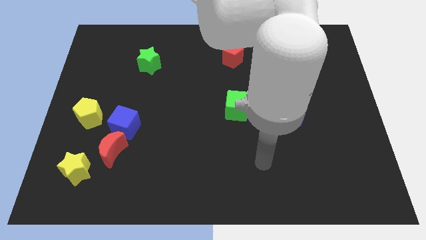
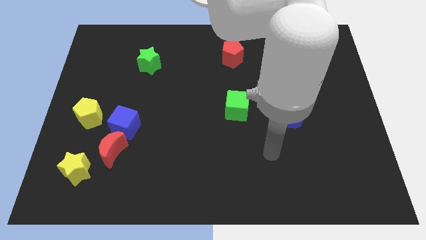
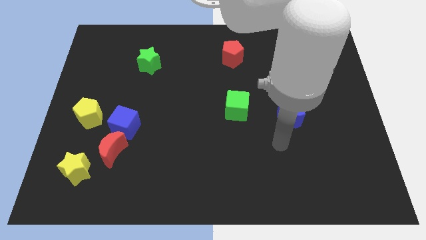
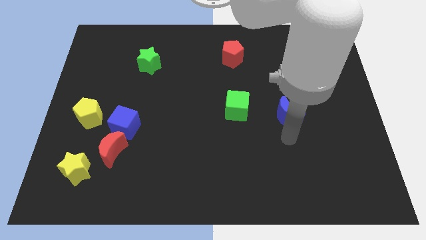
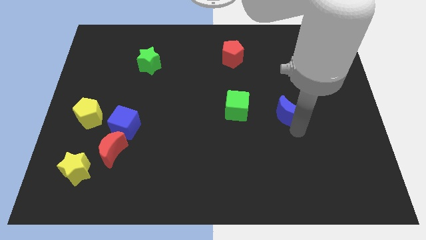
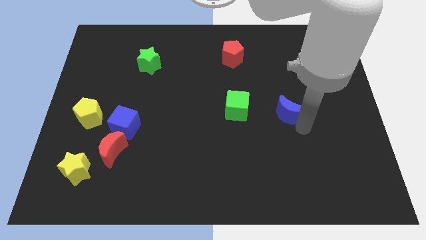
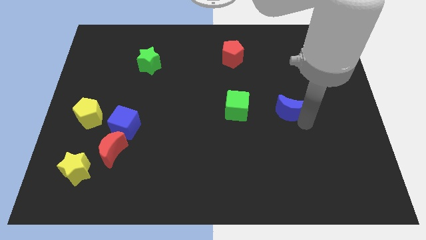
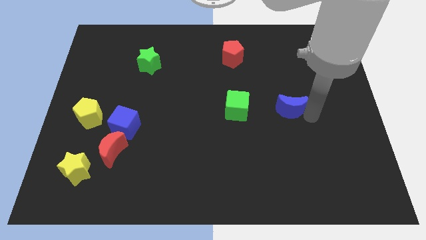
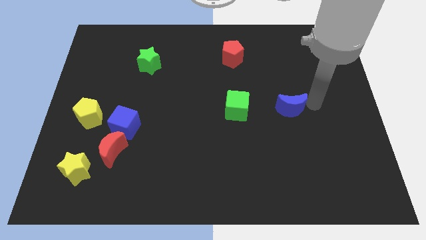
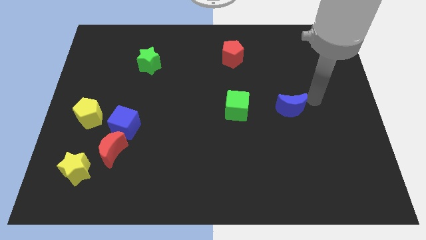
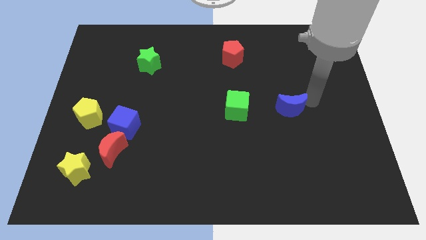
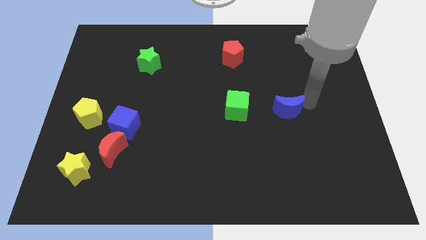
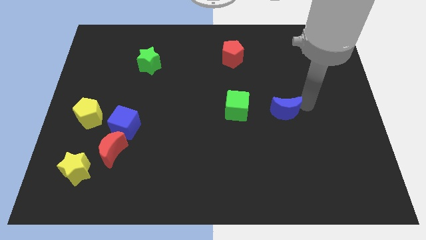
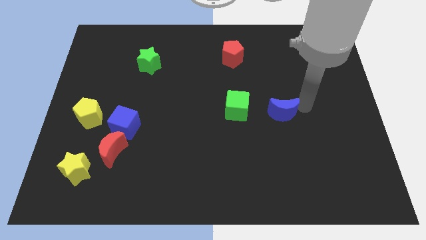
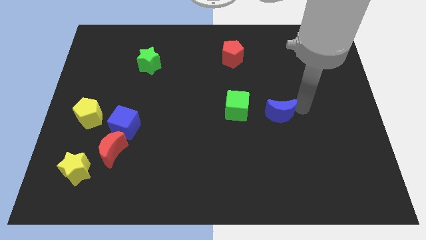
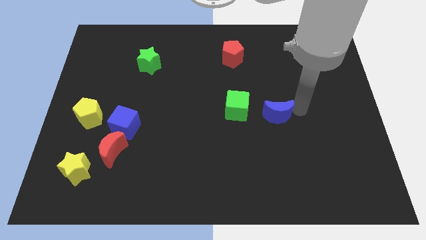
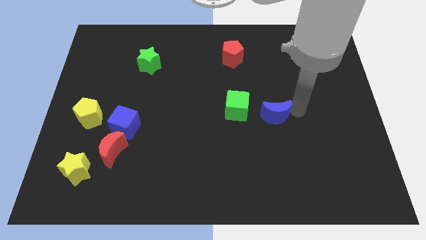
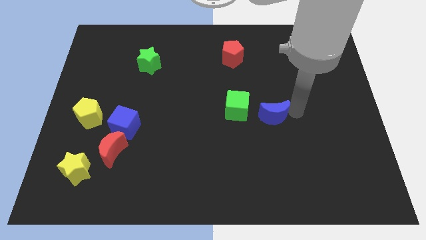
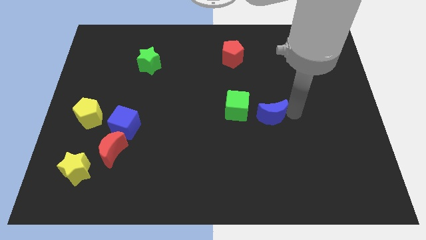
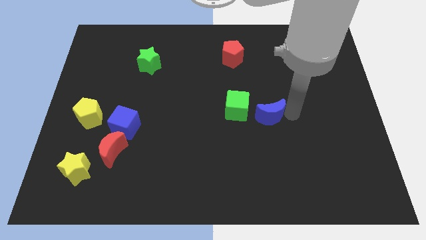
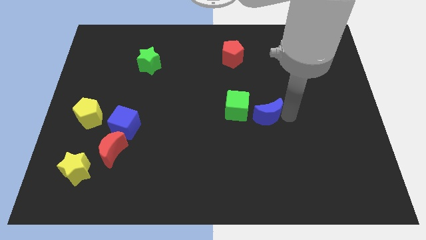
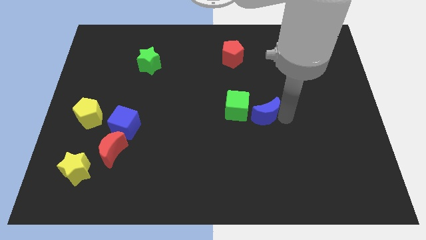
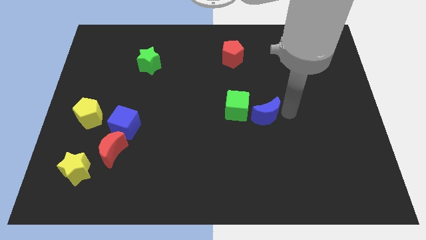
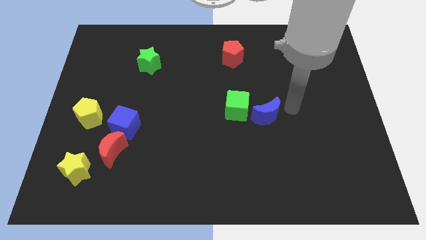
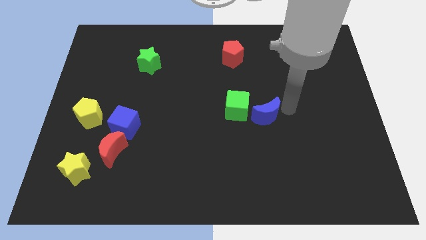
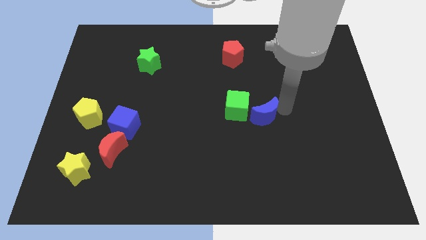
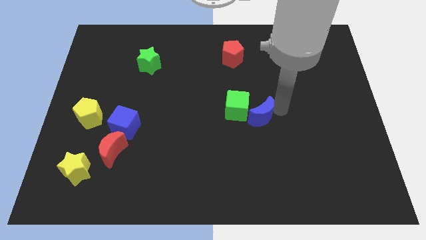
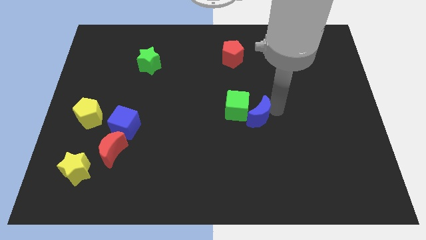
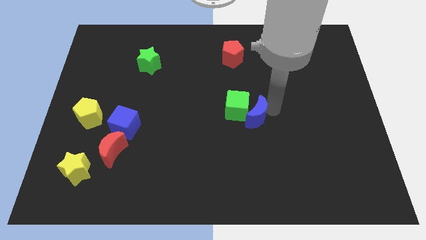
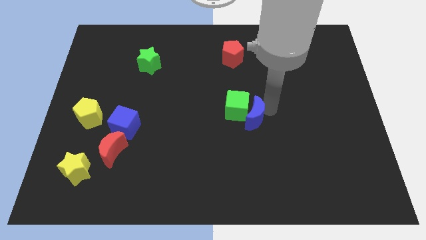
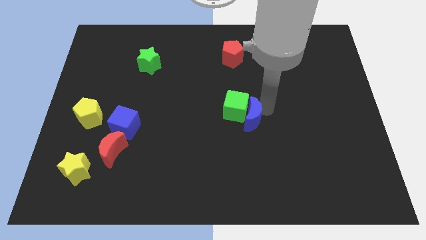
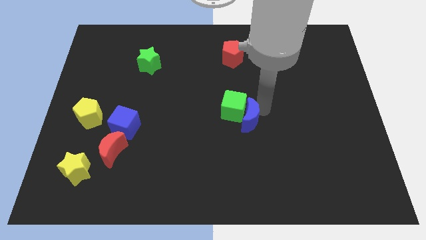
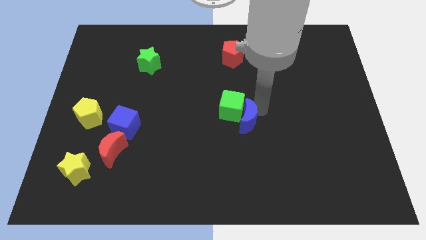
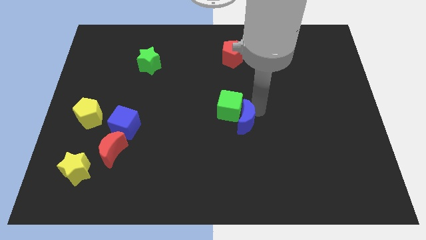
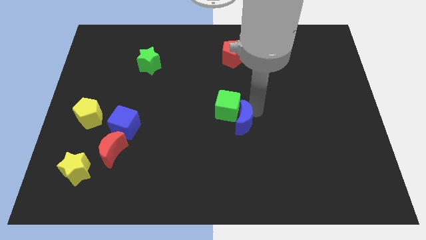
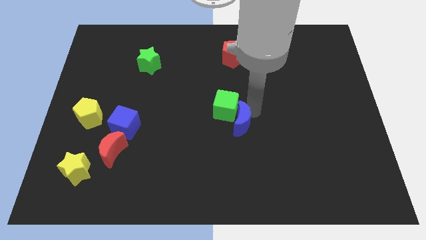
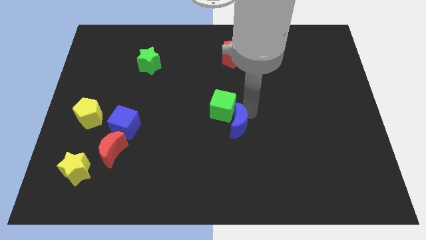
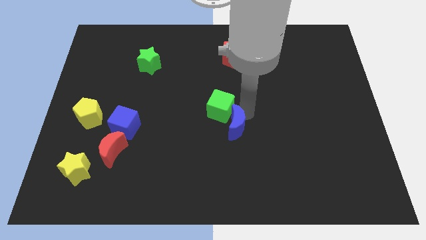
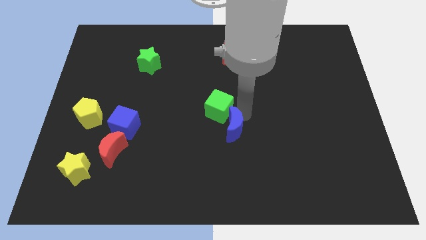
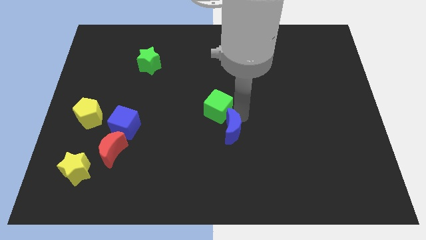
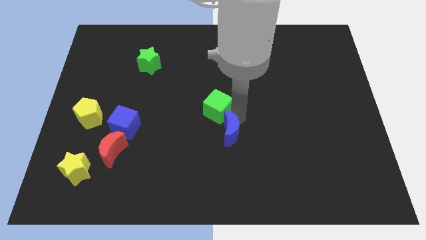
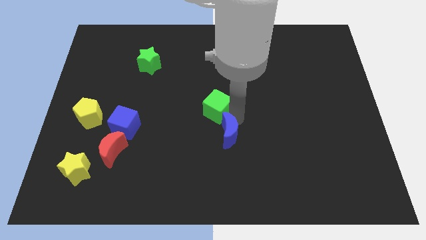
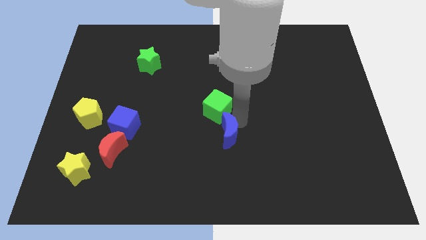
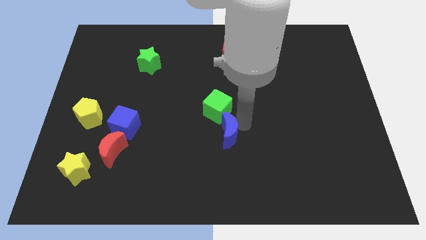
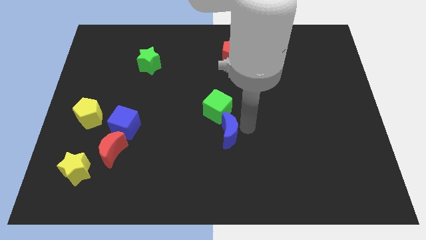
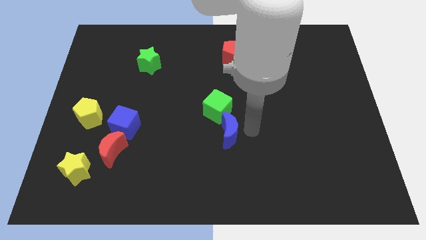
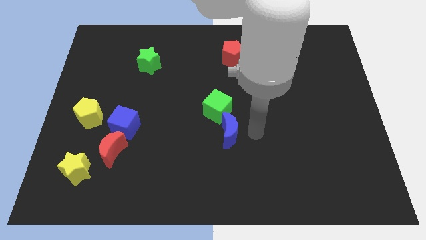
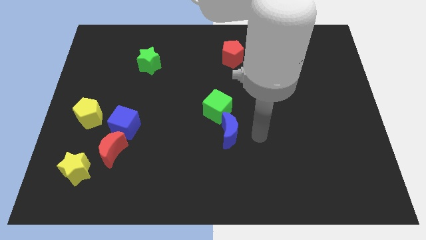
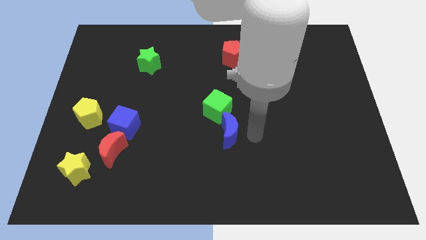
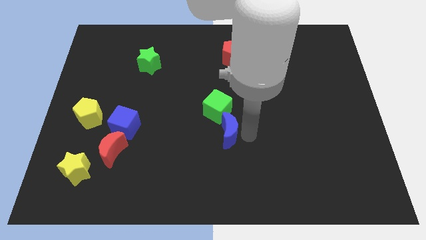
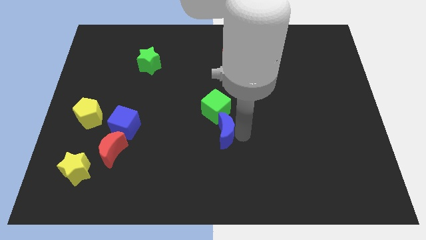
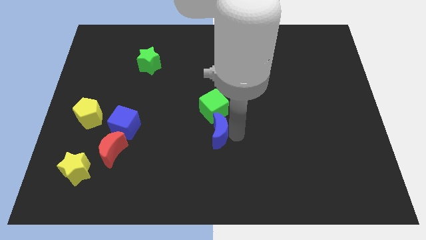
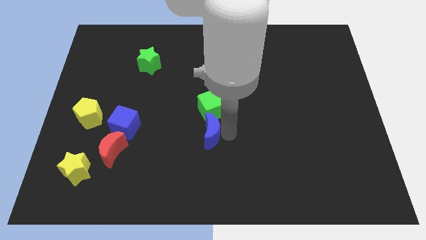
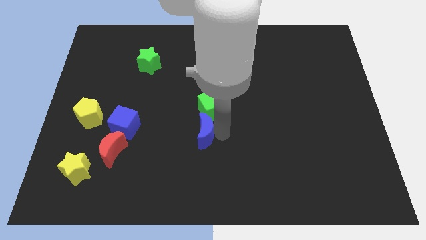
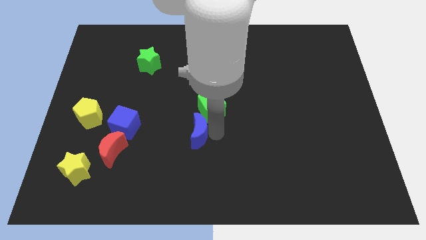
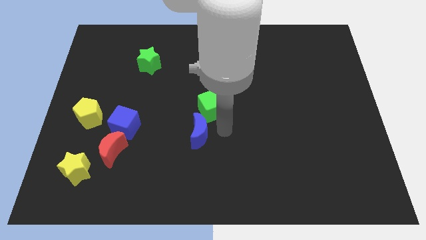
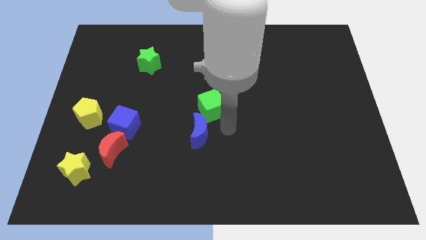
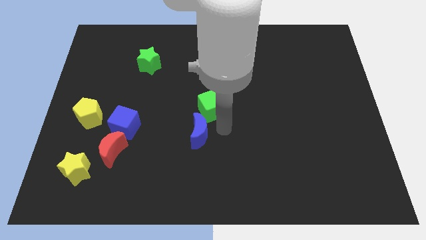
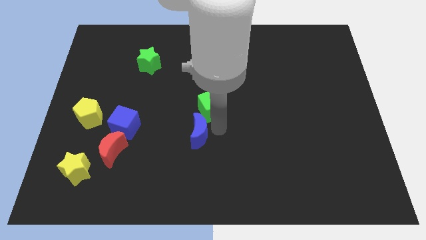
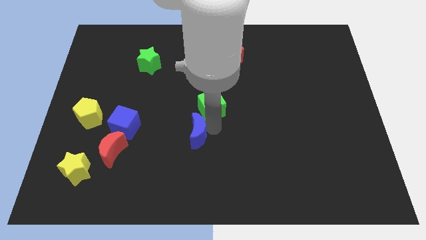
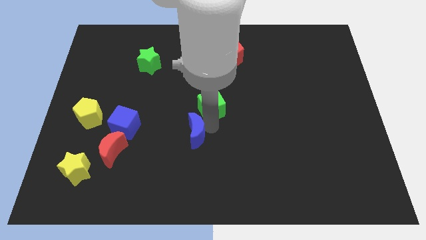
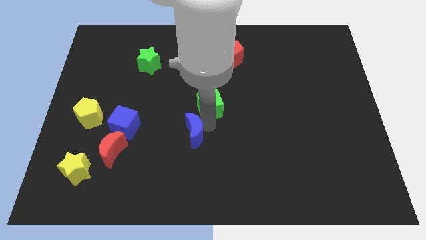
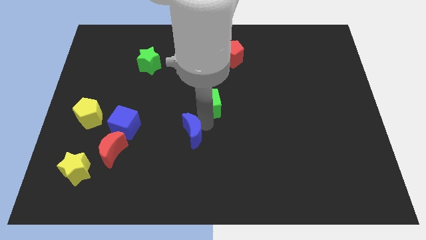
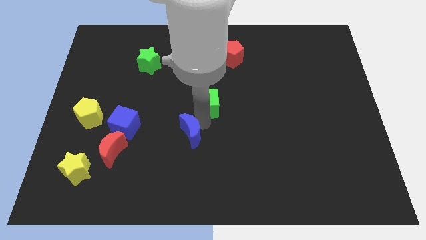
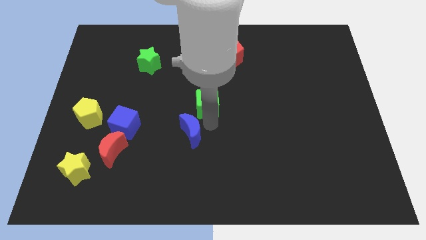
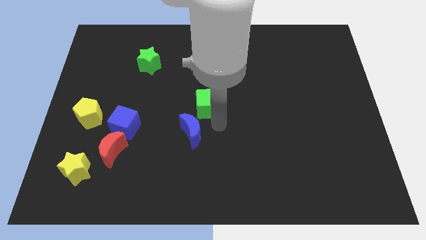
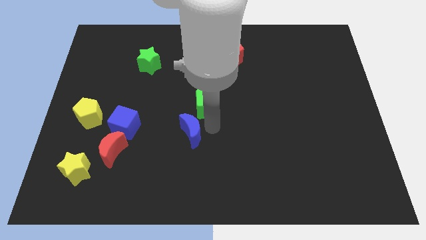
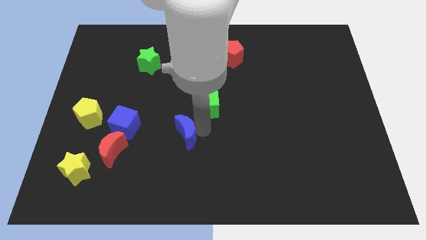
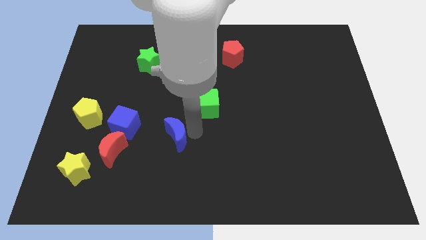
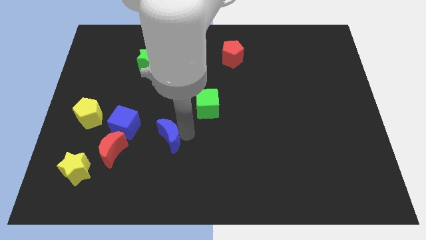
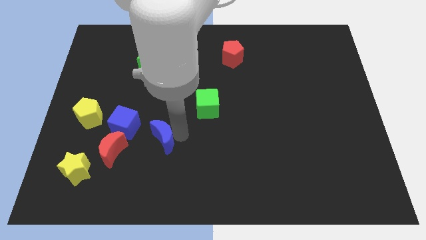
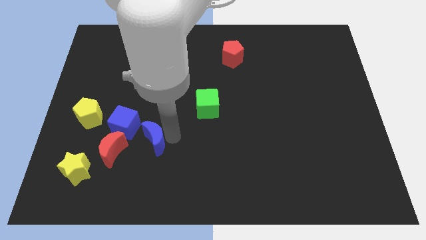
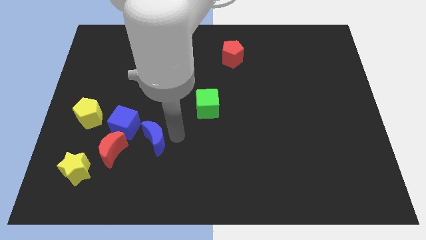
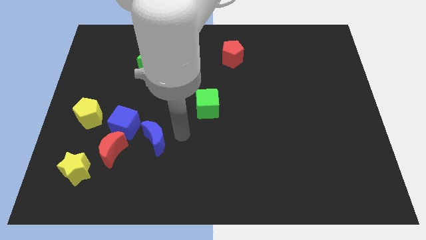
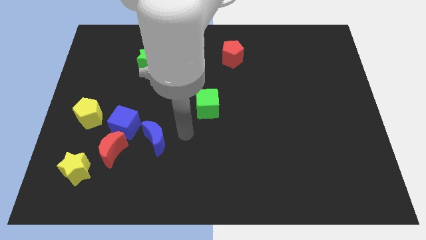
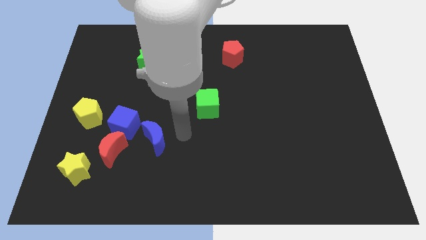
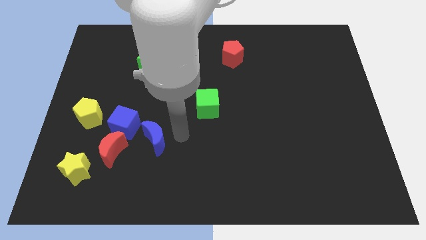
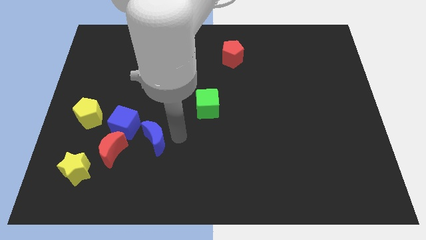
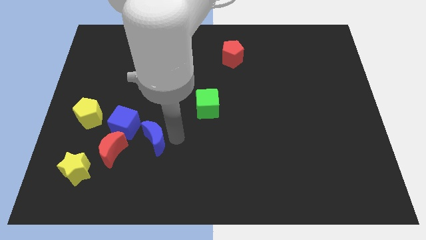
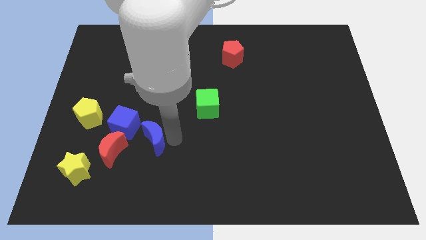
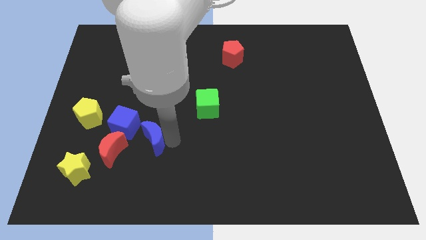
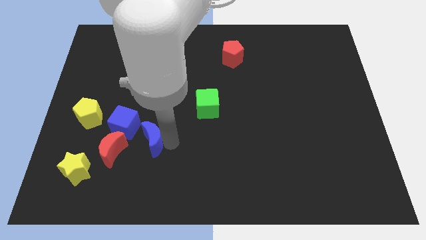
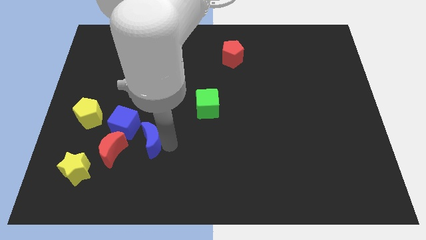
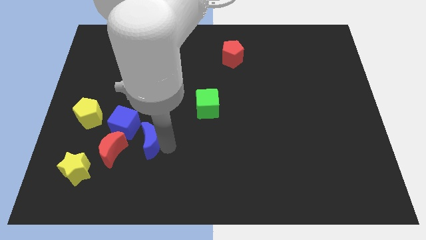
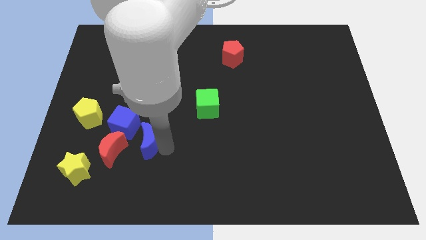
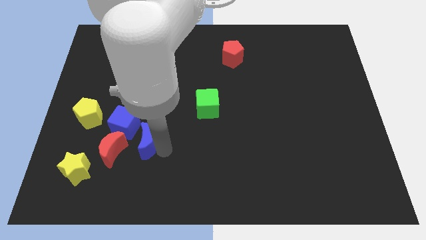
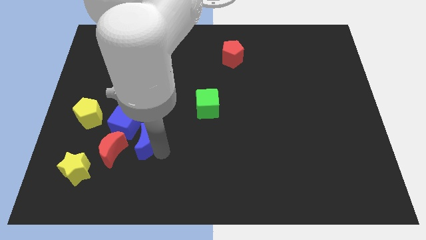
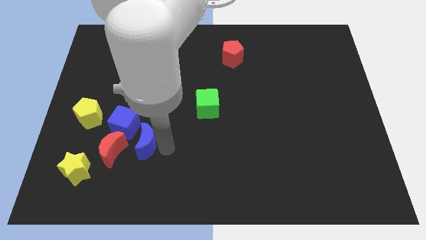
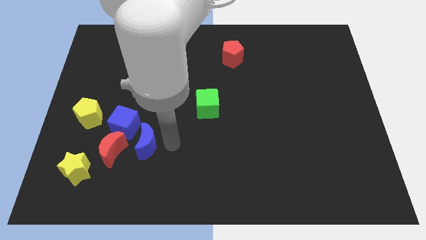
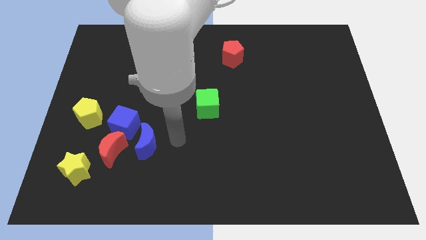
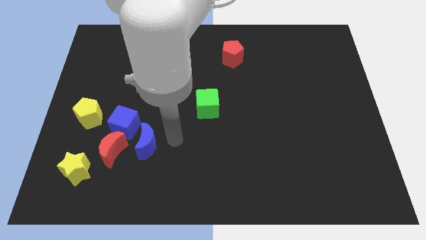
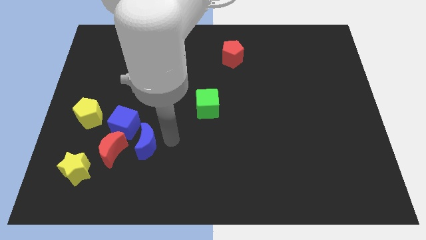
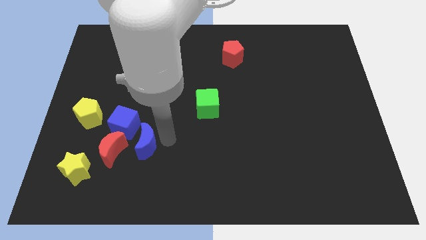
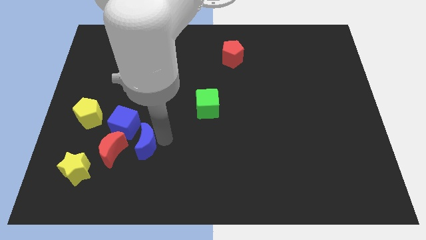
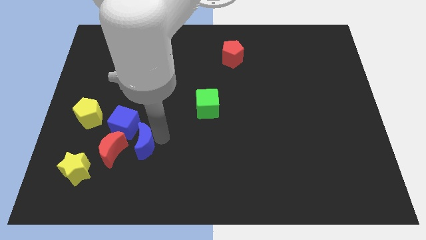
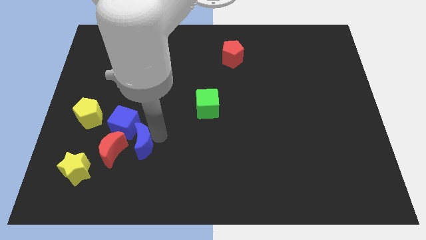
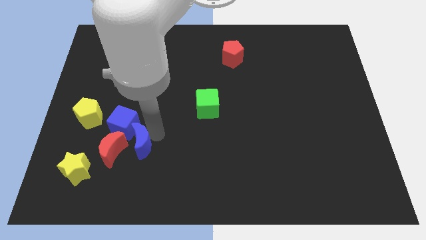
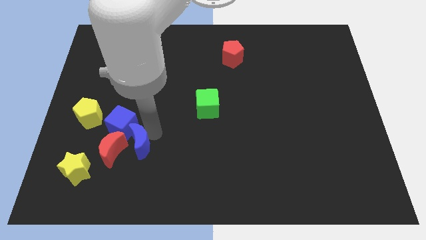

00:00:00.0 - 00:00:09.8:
move the blue moon next to the red moon
